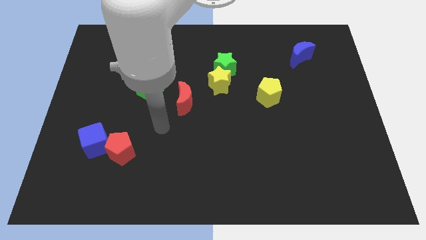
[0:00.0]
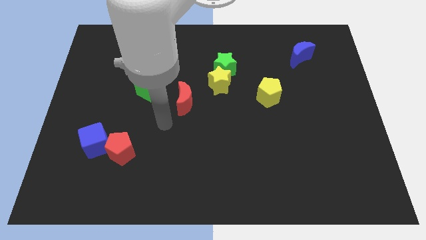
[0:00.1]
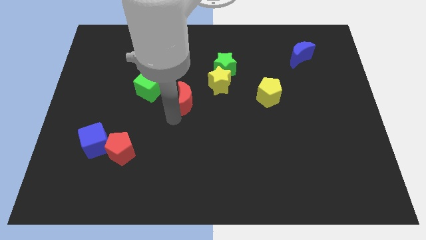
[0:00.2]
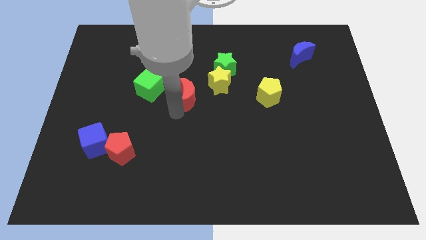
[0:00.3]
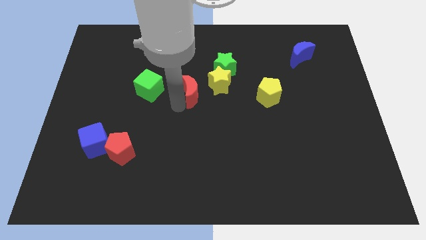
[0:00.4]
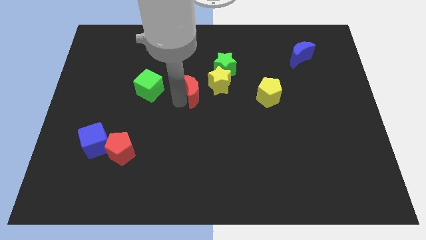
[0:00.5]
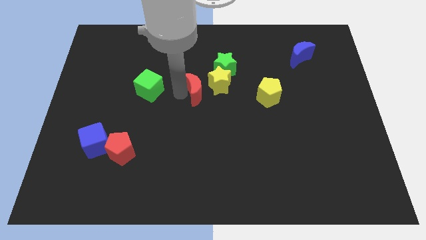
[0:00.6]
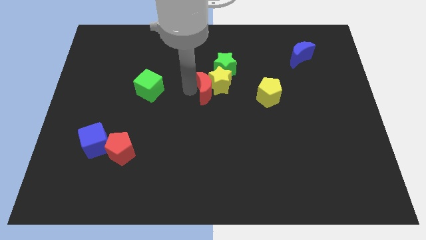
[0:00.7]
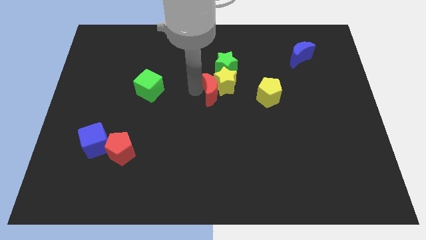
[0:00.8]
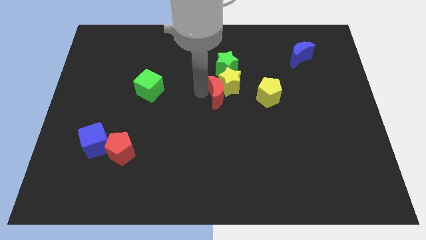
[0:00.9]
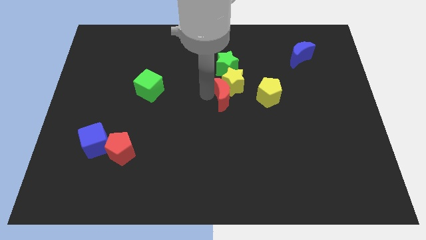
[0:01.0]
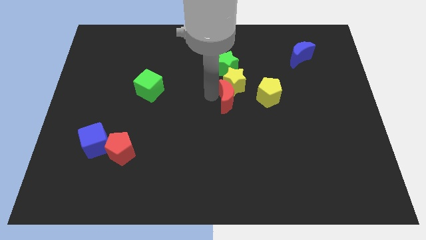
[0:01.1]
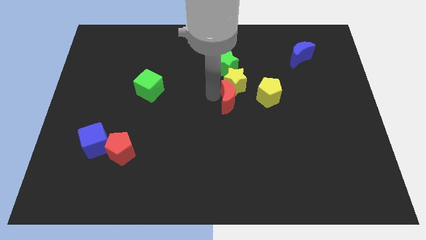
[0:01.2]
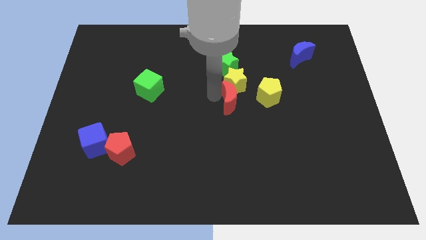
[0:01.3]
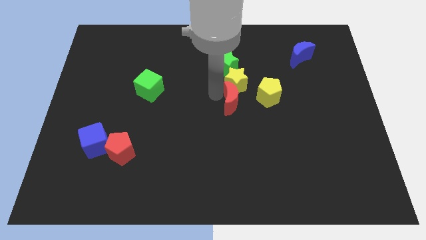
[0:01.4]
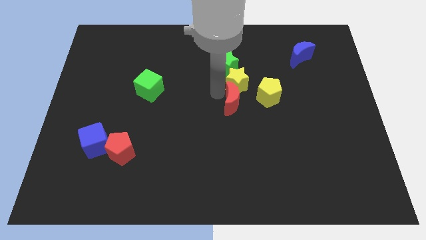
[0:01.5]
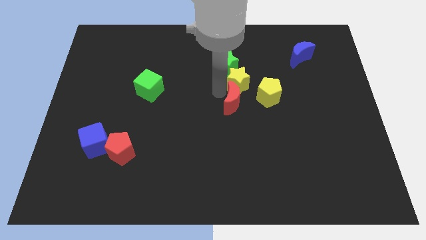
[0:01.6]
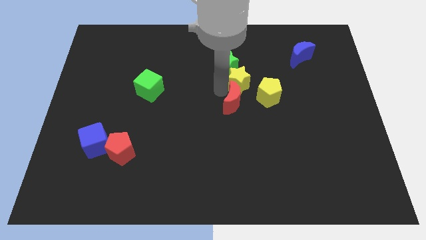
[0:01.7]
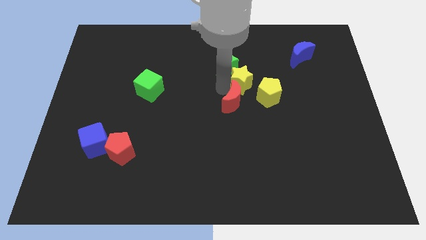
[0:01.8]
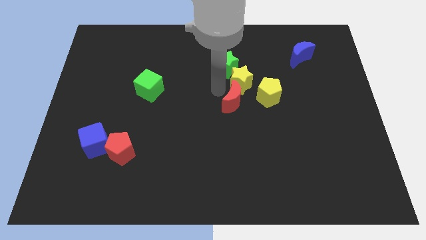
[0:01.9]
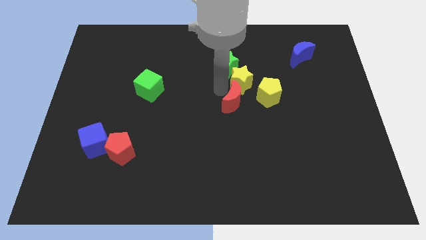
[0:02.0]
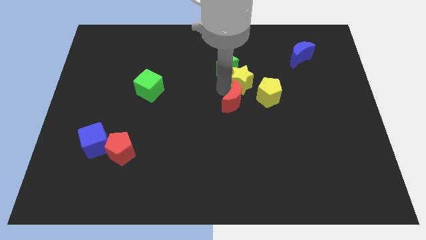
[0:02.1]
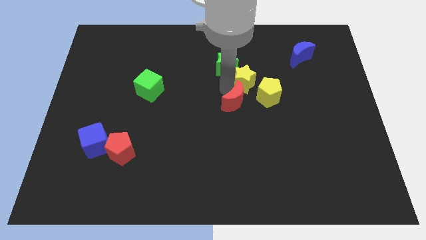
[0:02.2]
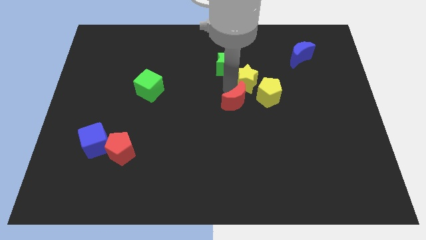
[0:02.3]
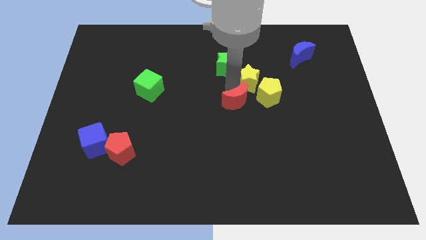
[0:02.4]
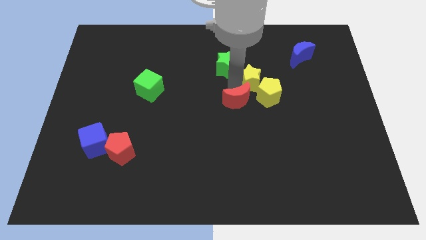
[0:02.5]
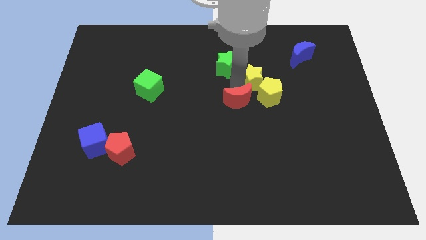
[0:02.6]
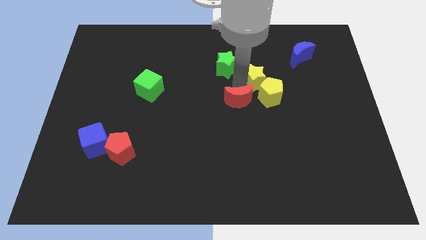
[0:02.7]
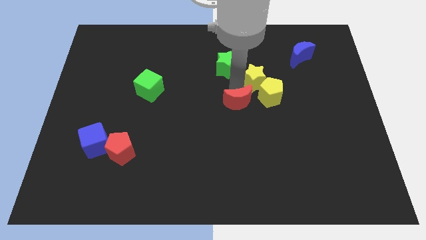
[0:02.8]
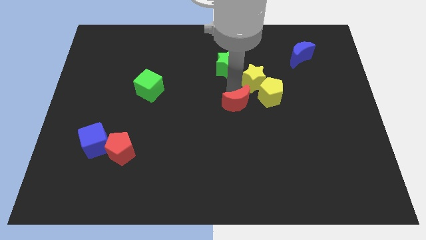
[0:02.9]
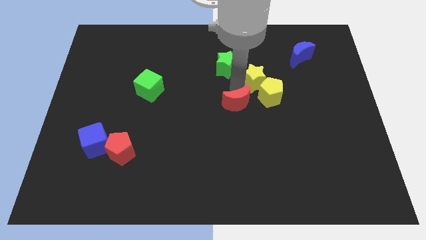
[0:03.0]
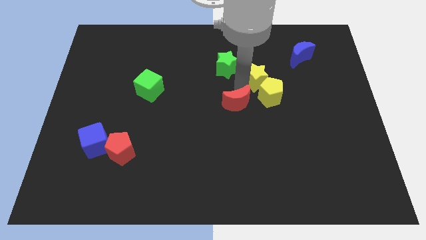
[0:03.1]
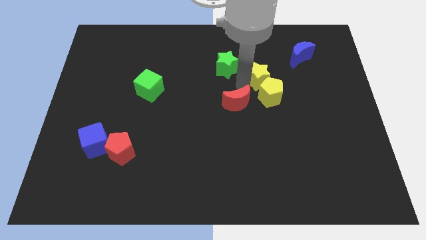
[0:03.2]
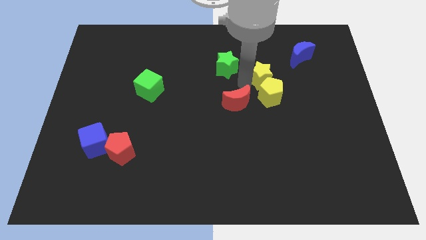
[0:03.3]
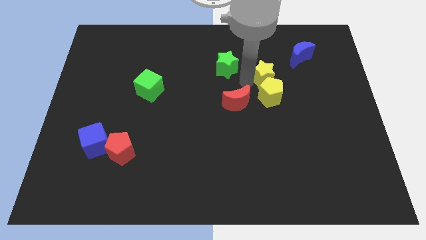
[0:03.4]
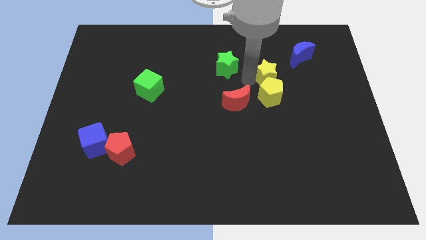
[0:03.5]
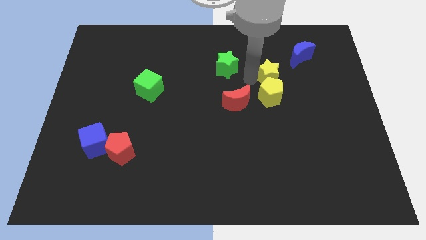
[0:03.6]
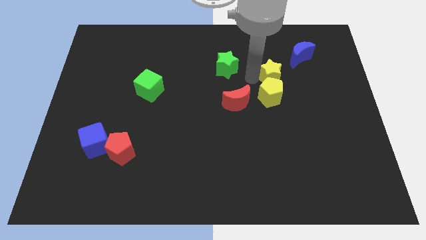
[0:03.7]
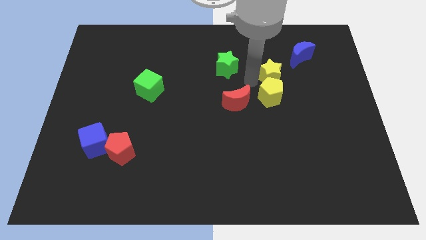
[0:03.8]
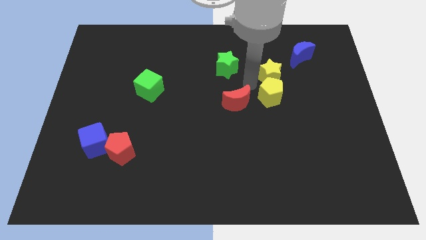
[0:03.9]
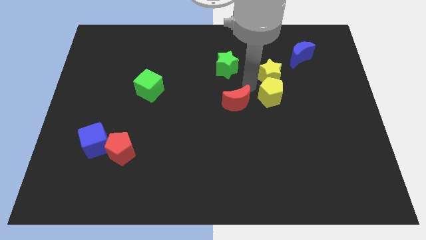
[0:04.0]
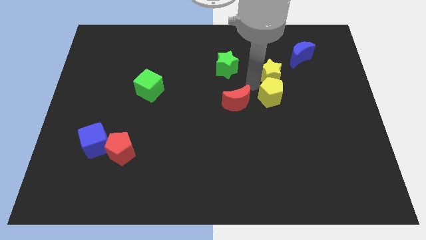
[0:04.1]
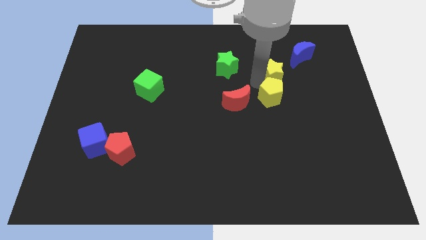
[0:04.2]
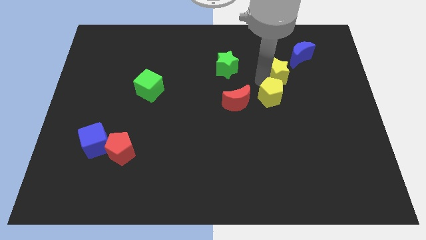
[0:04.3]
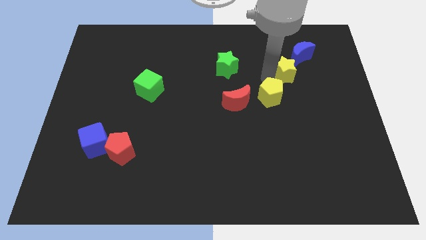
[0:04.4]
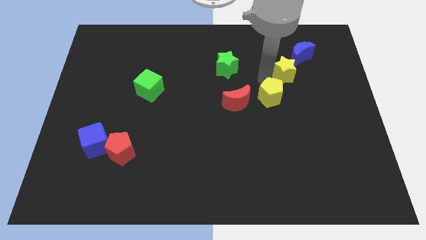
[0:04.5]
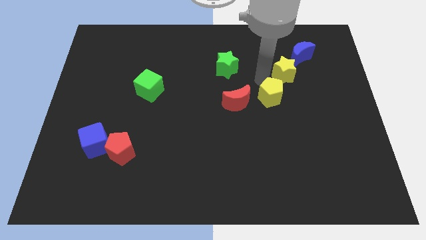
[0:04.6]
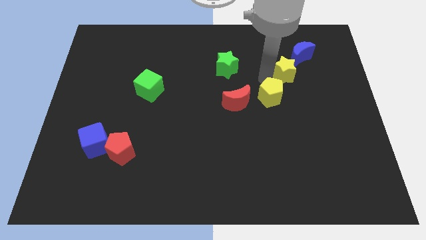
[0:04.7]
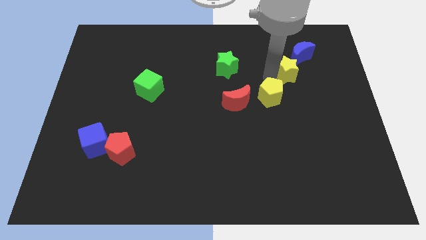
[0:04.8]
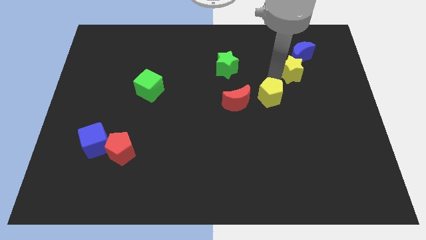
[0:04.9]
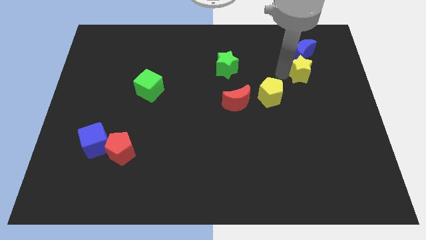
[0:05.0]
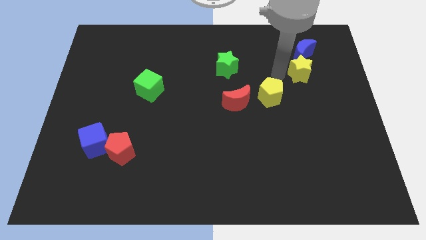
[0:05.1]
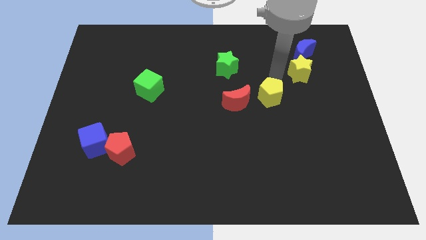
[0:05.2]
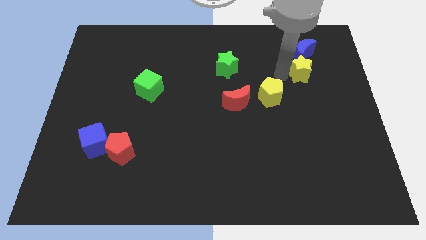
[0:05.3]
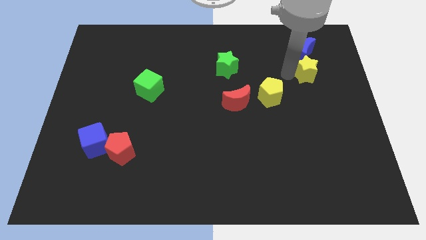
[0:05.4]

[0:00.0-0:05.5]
put the yellow star diagonally down and to the right of the blue moon

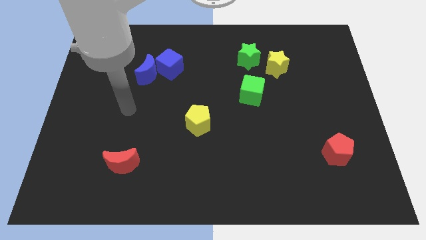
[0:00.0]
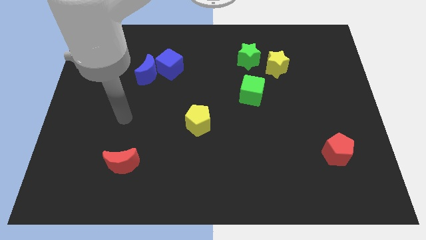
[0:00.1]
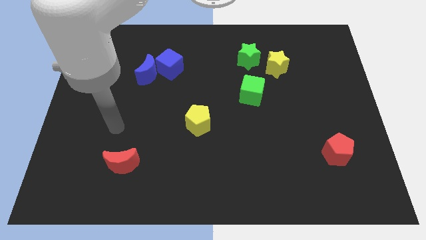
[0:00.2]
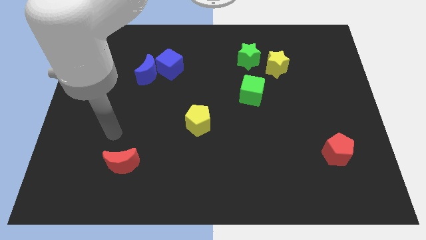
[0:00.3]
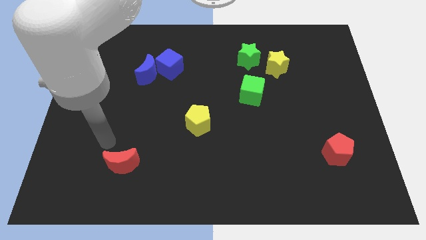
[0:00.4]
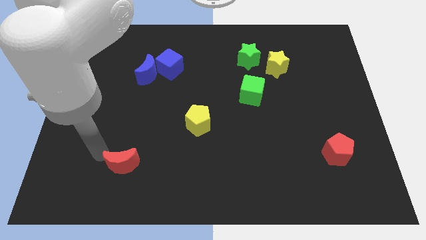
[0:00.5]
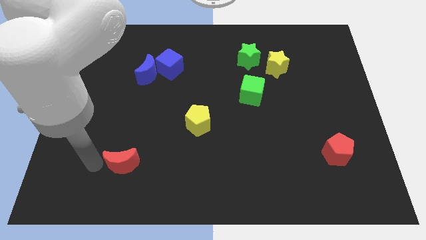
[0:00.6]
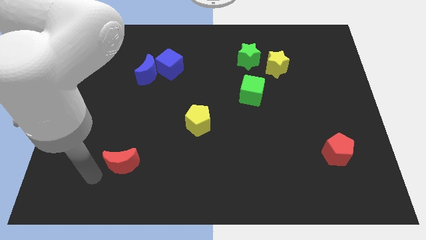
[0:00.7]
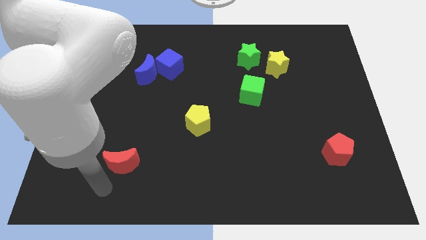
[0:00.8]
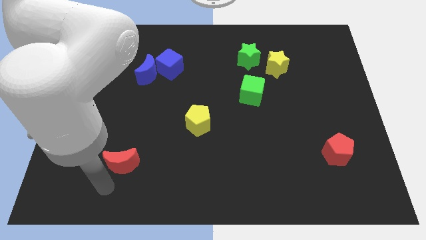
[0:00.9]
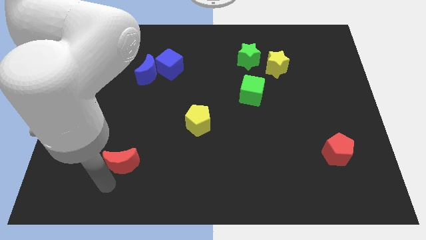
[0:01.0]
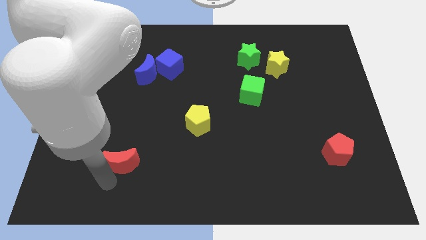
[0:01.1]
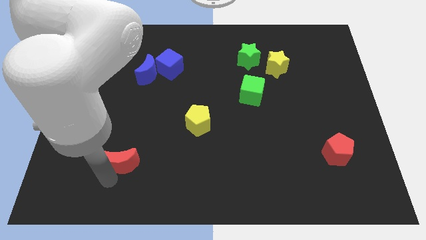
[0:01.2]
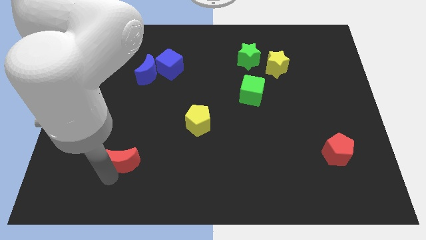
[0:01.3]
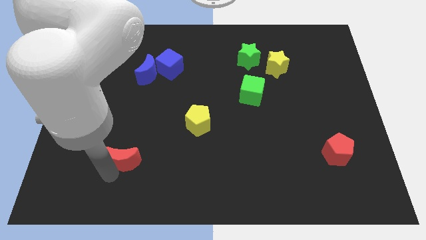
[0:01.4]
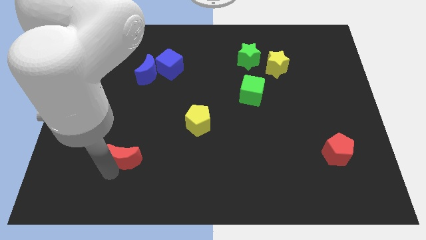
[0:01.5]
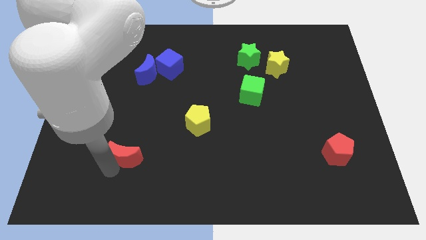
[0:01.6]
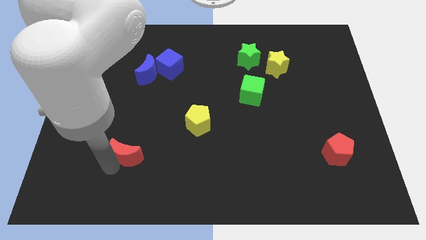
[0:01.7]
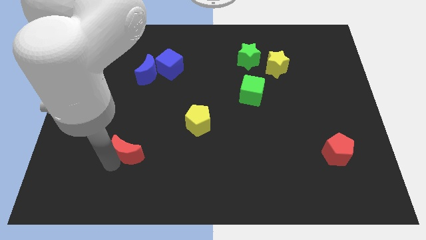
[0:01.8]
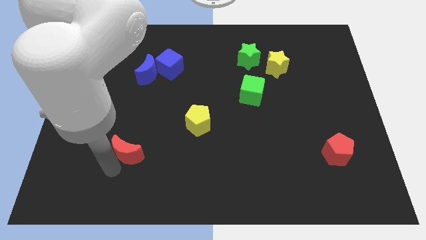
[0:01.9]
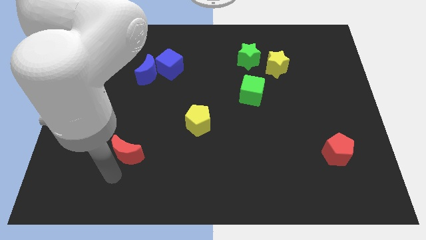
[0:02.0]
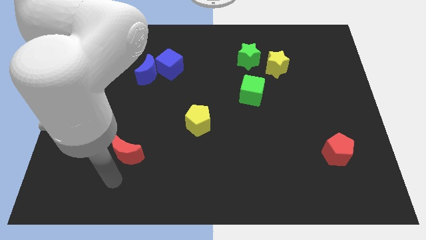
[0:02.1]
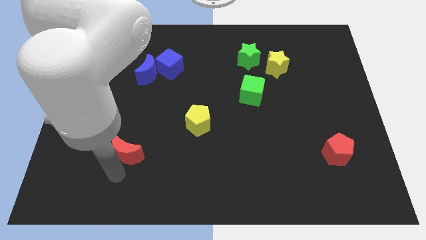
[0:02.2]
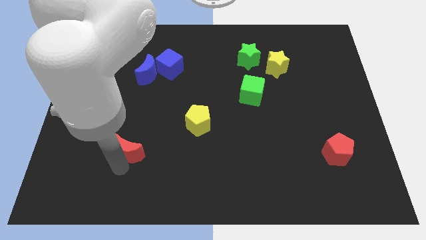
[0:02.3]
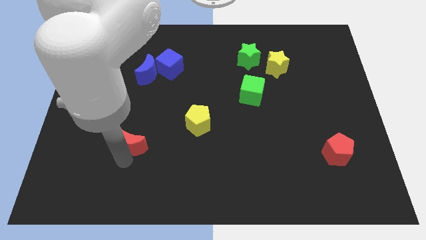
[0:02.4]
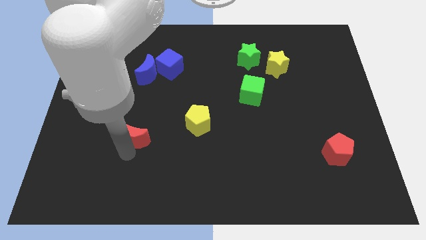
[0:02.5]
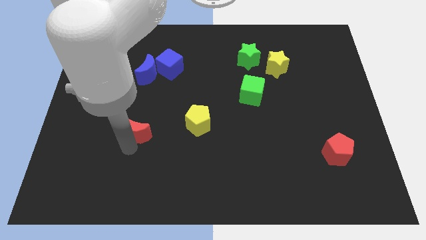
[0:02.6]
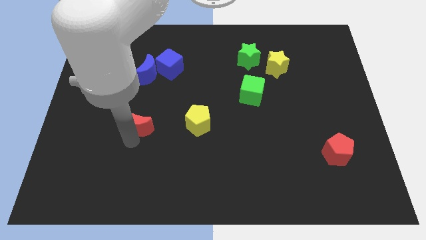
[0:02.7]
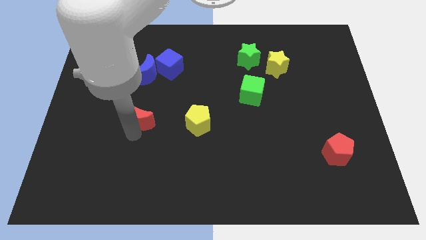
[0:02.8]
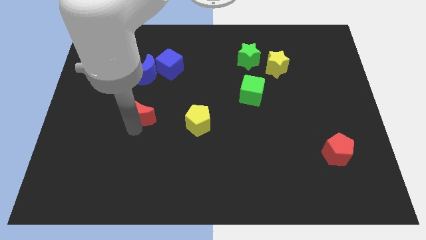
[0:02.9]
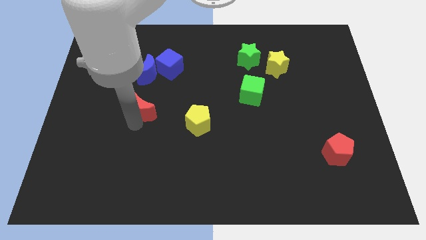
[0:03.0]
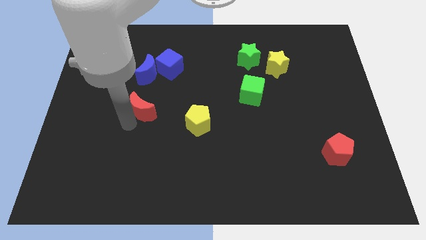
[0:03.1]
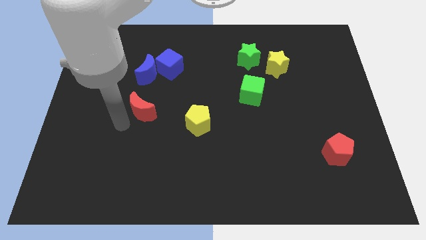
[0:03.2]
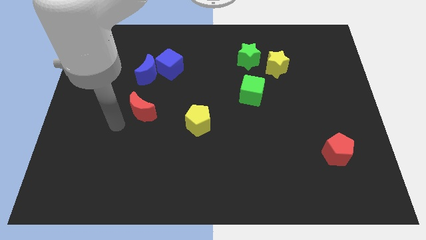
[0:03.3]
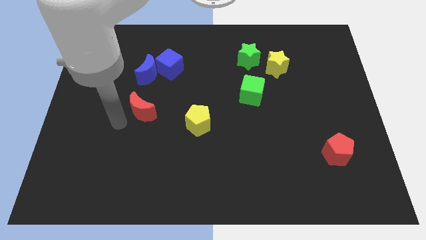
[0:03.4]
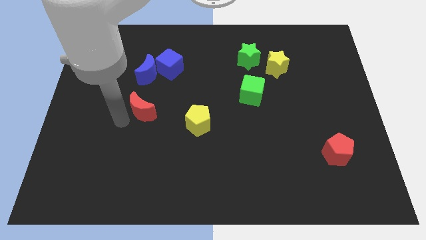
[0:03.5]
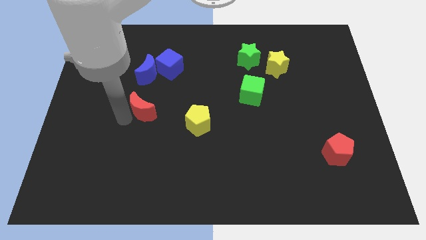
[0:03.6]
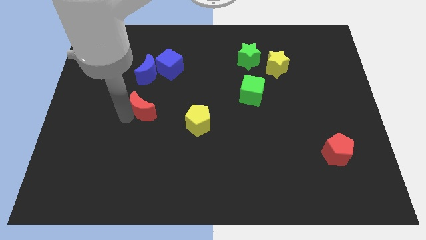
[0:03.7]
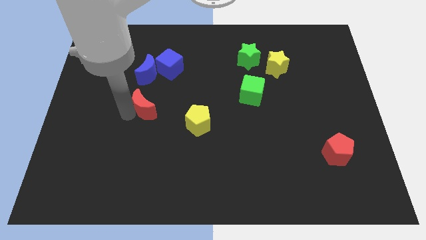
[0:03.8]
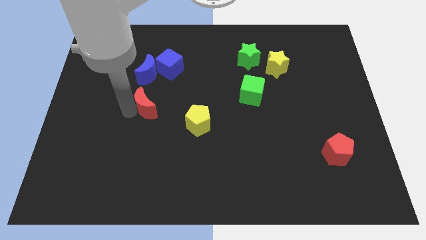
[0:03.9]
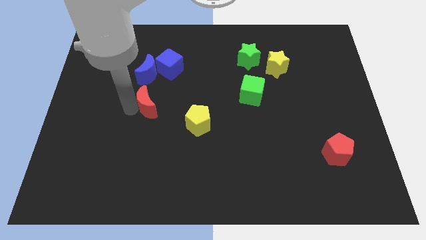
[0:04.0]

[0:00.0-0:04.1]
move the red moon to the bottom side of the blue cube
